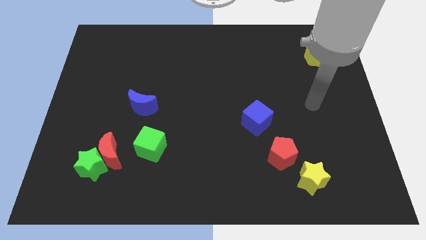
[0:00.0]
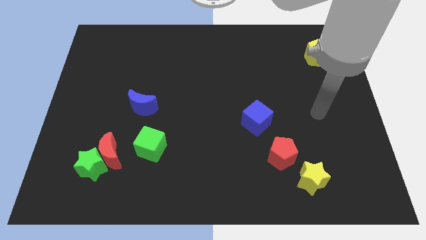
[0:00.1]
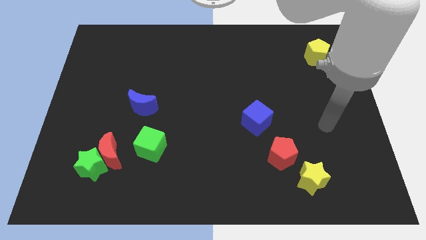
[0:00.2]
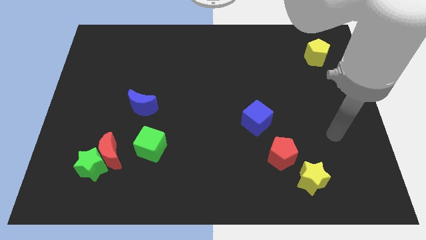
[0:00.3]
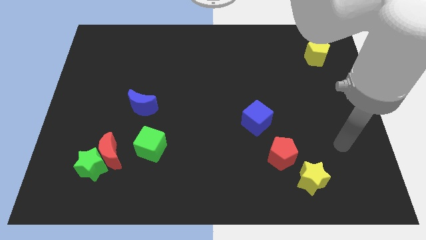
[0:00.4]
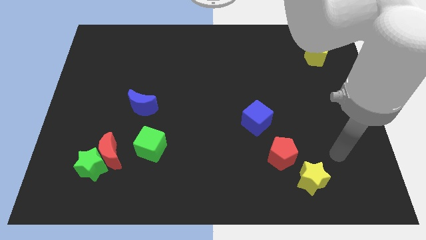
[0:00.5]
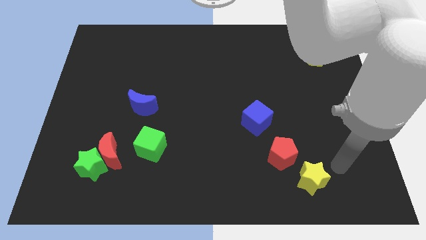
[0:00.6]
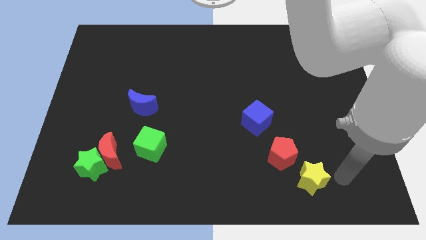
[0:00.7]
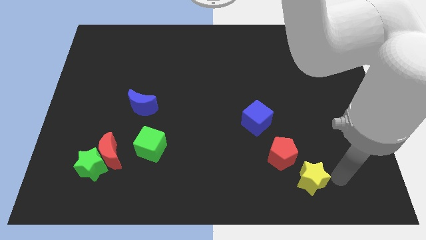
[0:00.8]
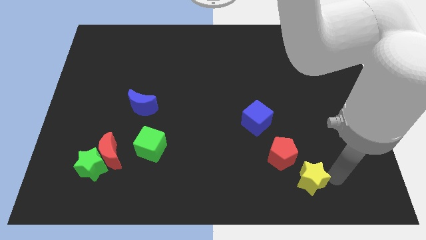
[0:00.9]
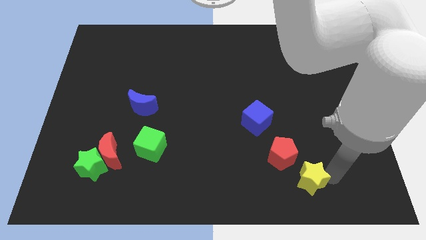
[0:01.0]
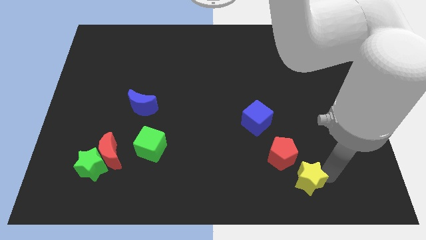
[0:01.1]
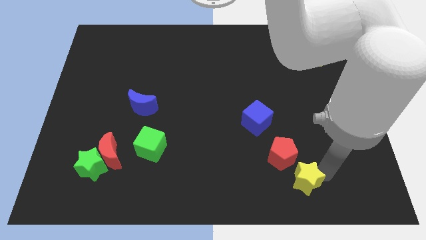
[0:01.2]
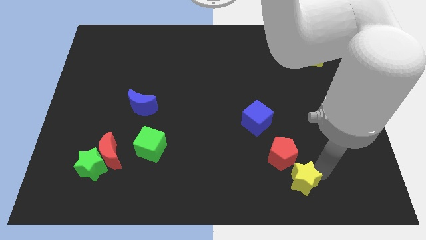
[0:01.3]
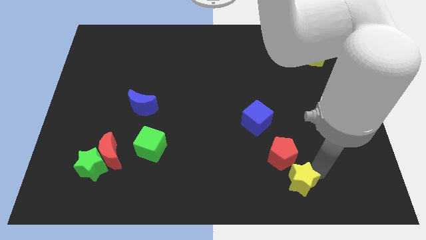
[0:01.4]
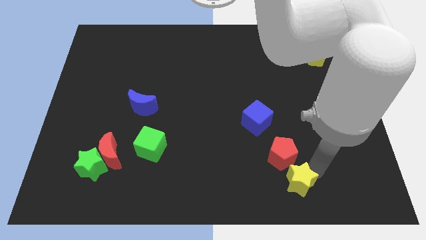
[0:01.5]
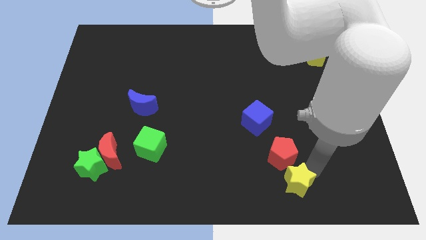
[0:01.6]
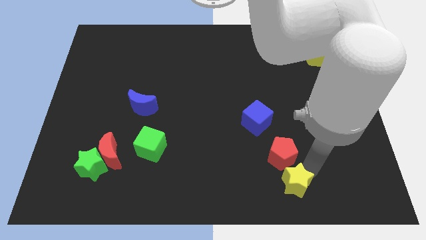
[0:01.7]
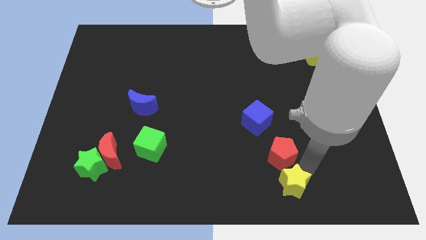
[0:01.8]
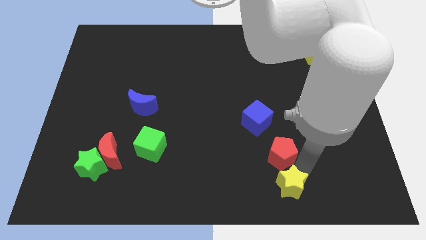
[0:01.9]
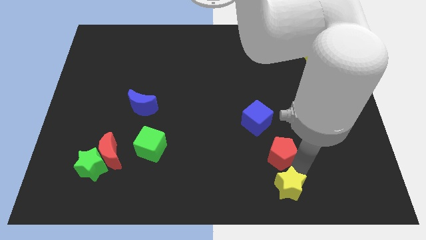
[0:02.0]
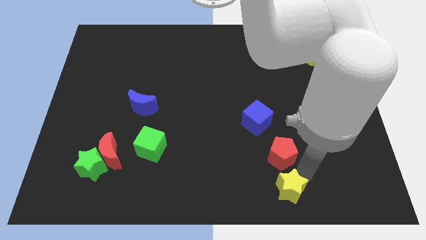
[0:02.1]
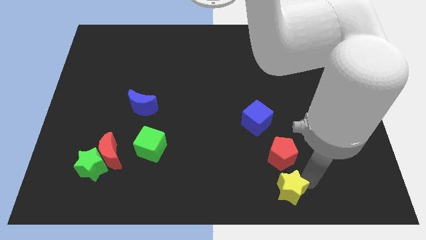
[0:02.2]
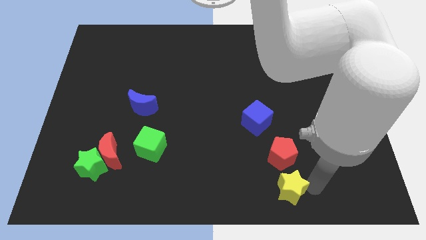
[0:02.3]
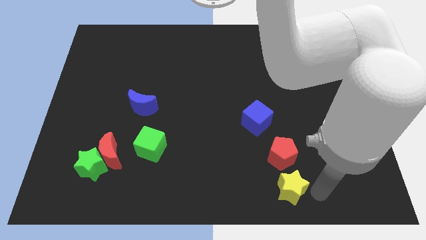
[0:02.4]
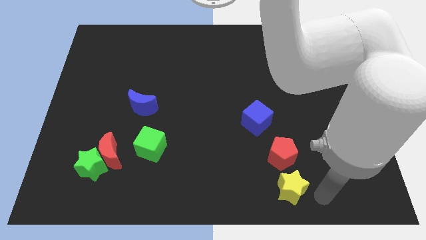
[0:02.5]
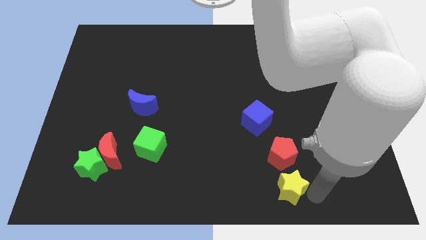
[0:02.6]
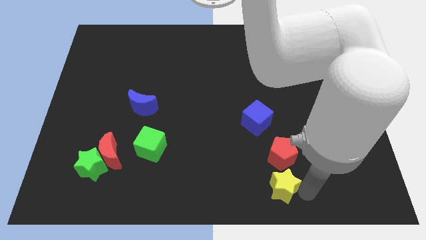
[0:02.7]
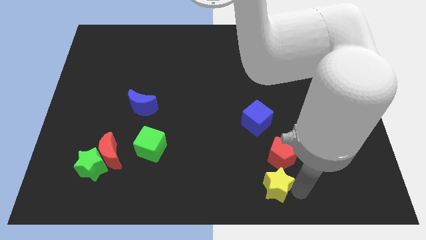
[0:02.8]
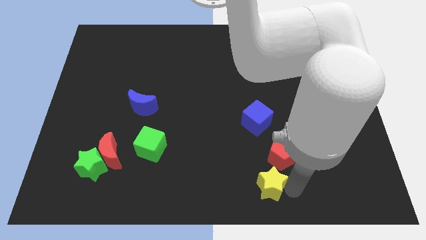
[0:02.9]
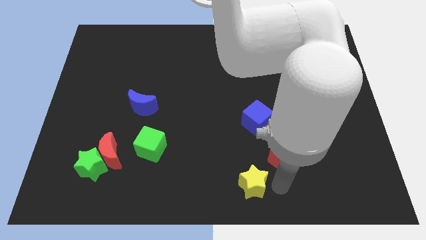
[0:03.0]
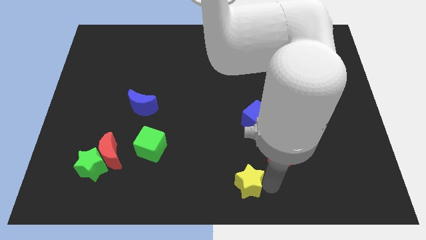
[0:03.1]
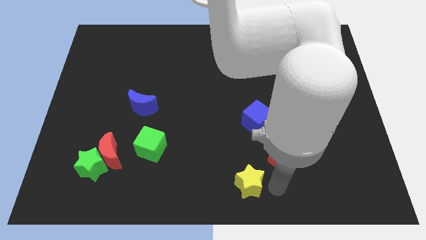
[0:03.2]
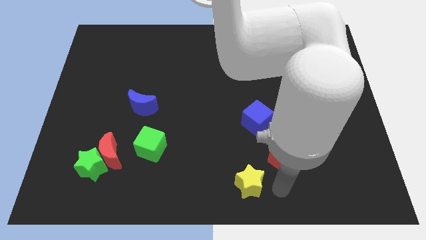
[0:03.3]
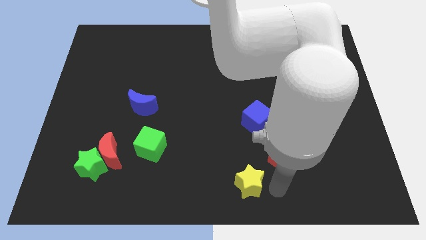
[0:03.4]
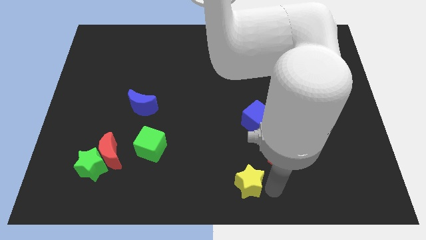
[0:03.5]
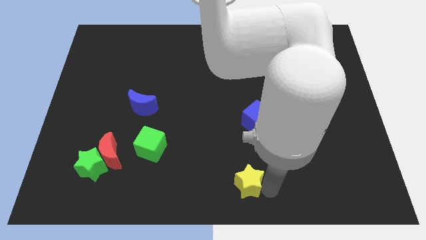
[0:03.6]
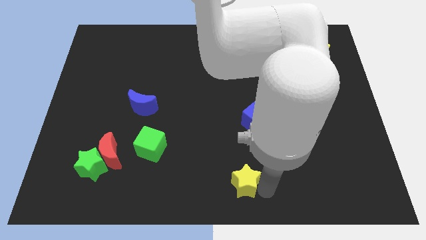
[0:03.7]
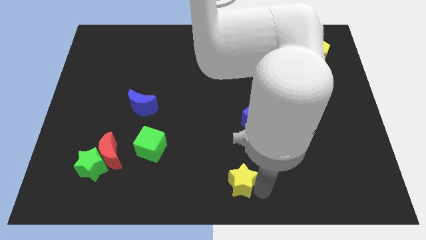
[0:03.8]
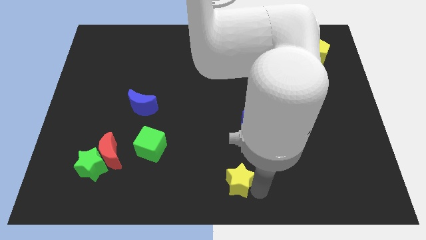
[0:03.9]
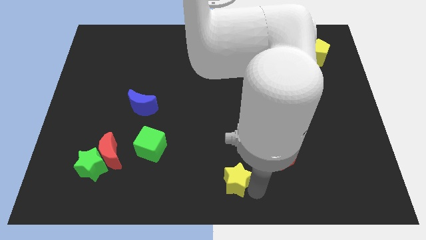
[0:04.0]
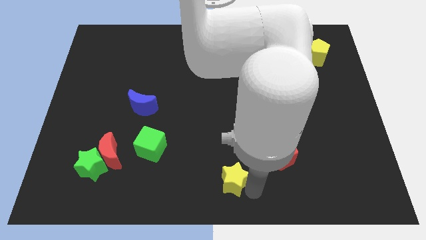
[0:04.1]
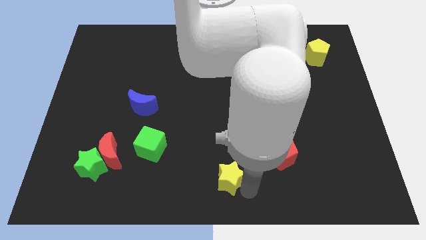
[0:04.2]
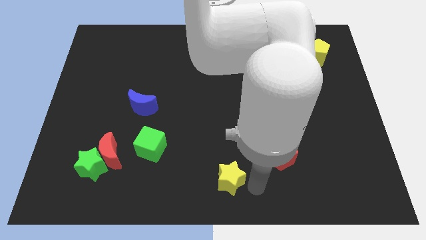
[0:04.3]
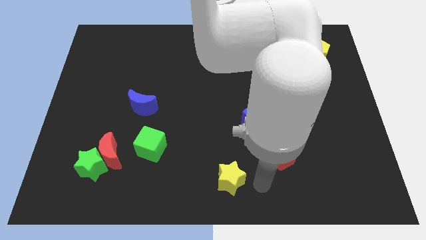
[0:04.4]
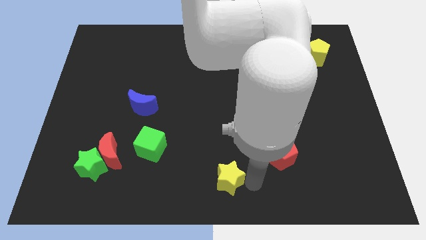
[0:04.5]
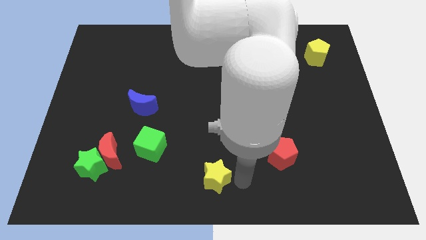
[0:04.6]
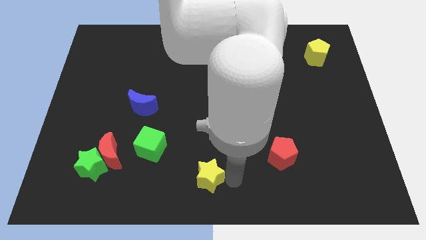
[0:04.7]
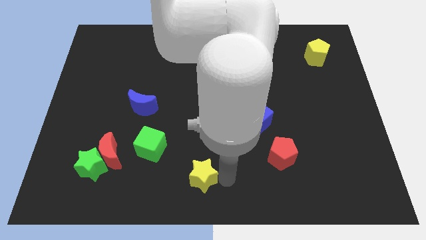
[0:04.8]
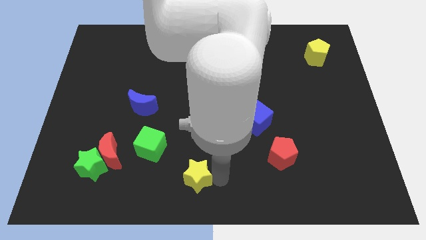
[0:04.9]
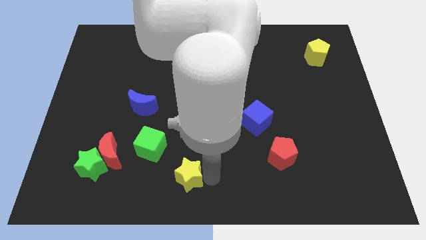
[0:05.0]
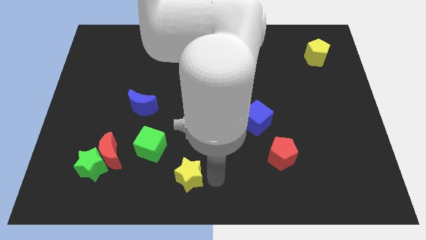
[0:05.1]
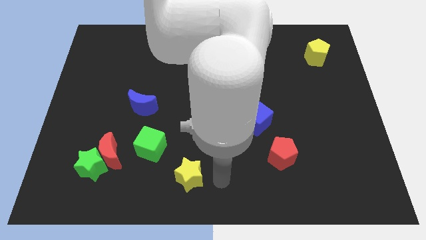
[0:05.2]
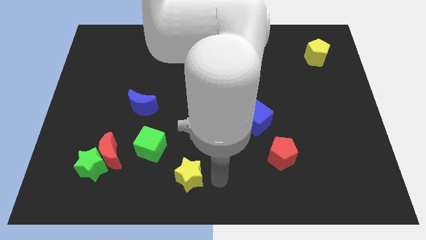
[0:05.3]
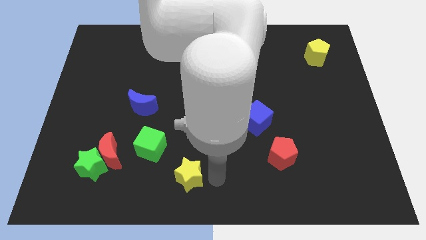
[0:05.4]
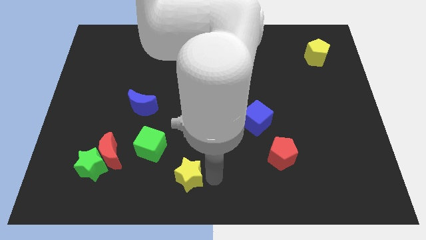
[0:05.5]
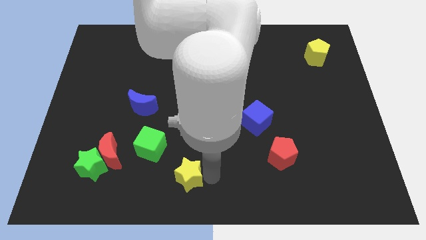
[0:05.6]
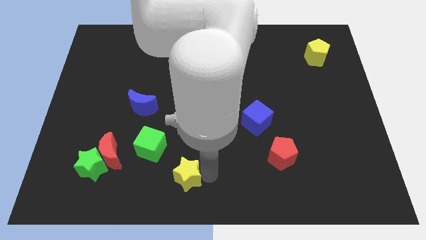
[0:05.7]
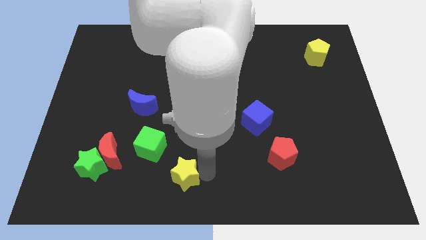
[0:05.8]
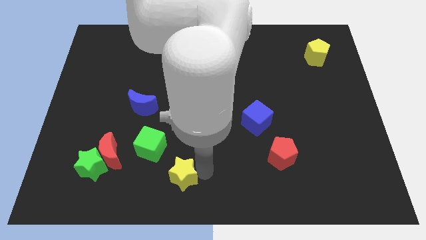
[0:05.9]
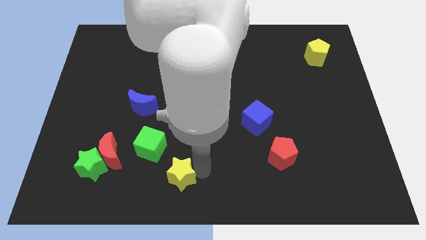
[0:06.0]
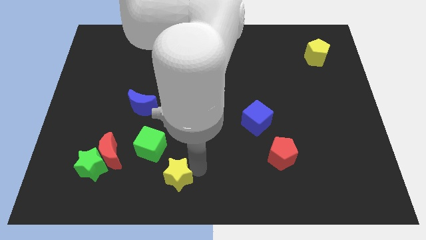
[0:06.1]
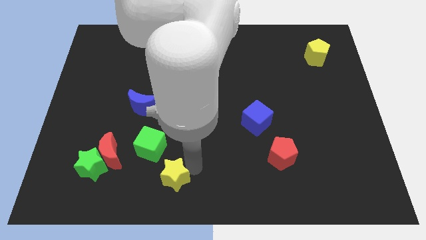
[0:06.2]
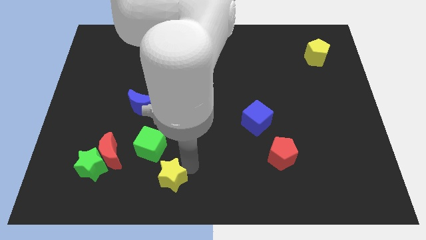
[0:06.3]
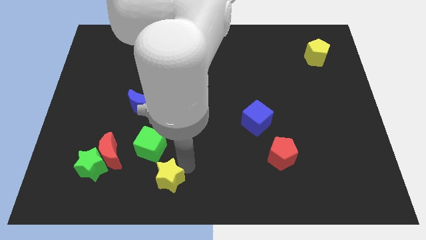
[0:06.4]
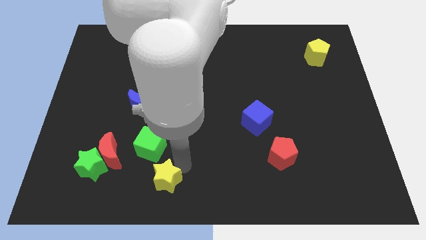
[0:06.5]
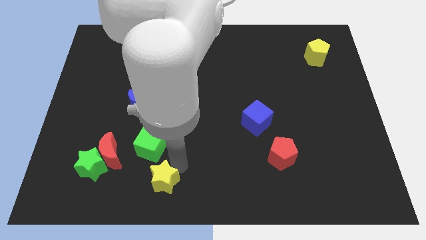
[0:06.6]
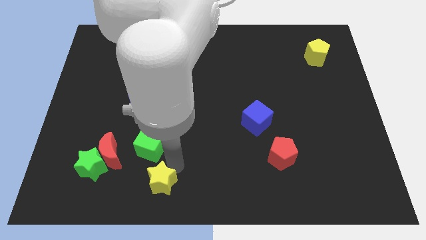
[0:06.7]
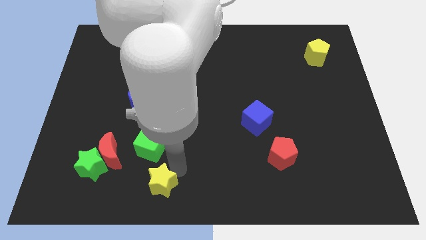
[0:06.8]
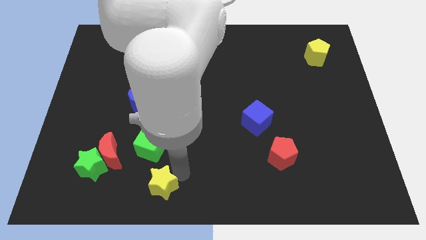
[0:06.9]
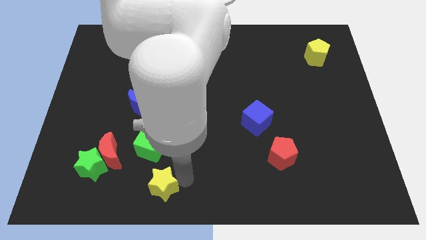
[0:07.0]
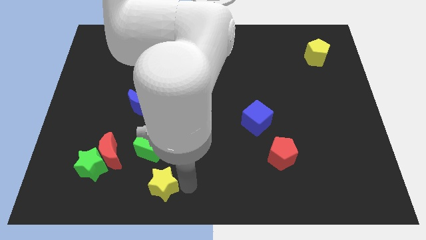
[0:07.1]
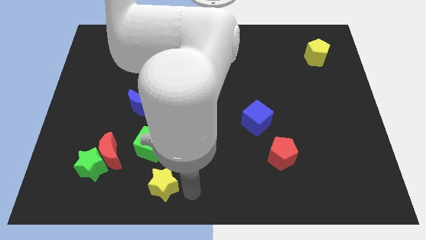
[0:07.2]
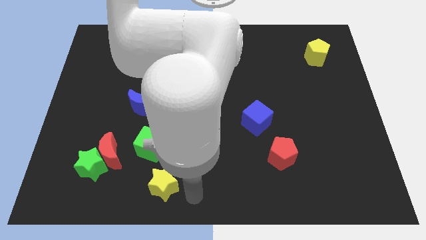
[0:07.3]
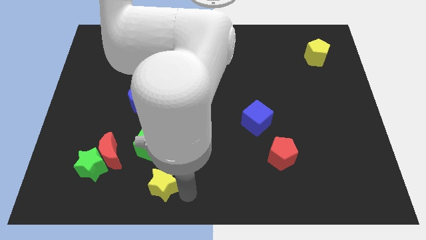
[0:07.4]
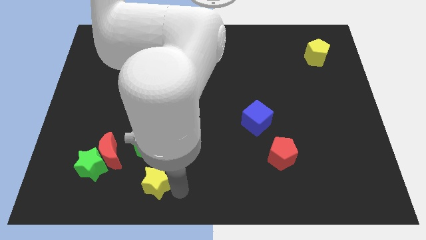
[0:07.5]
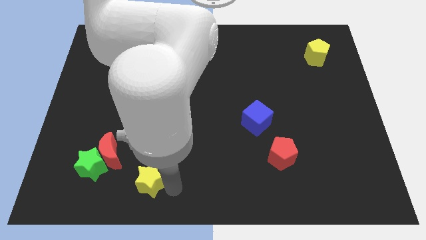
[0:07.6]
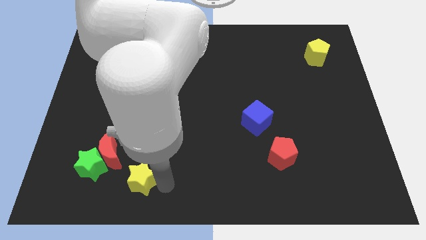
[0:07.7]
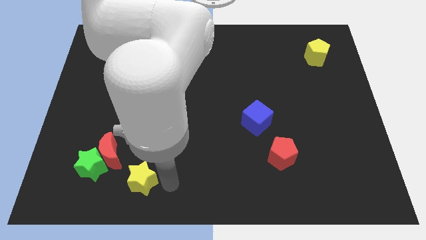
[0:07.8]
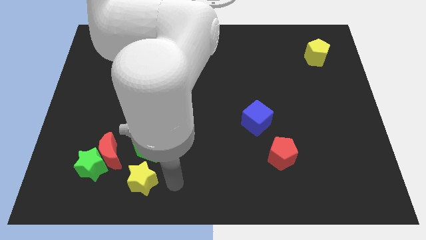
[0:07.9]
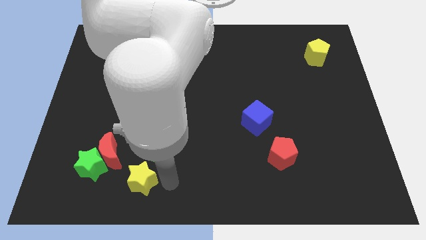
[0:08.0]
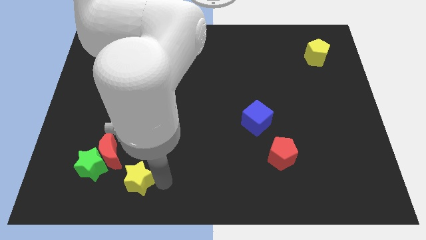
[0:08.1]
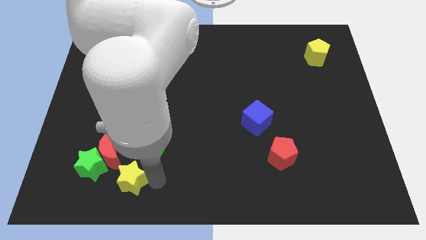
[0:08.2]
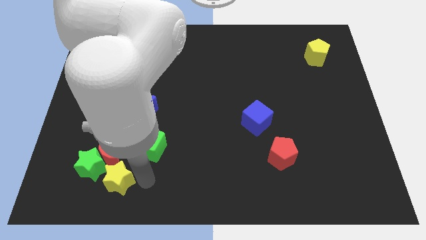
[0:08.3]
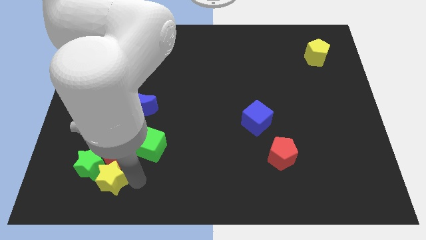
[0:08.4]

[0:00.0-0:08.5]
move the yellow star to the green star
